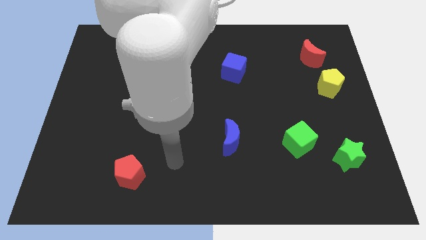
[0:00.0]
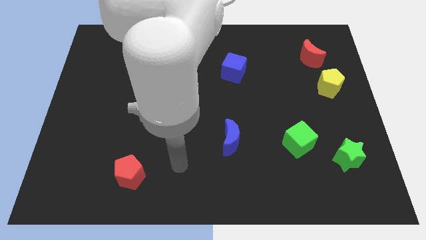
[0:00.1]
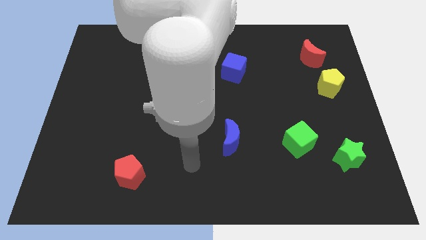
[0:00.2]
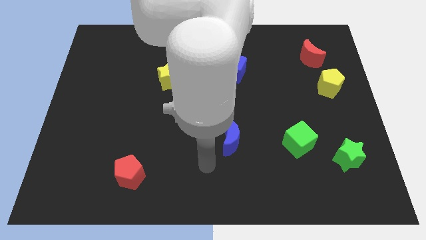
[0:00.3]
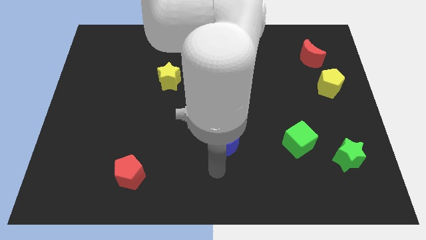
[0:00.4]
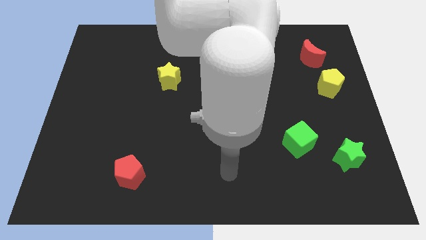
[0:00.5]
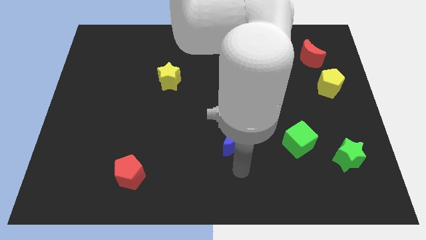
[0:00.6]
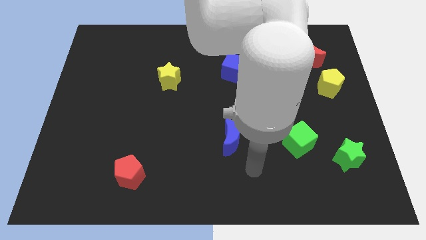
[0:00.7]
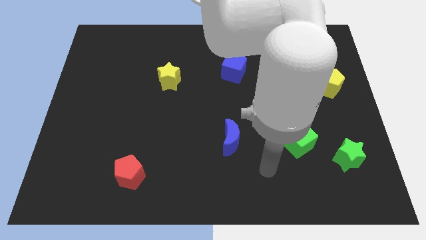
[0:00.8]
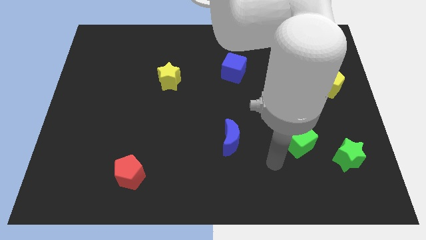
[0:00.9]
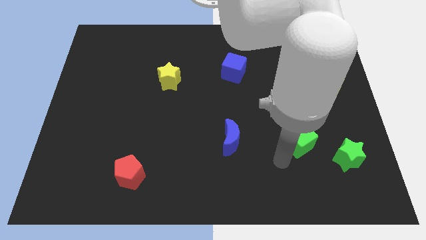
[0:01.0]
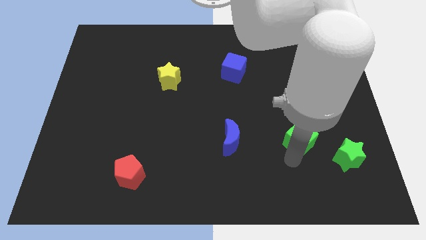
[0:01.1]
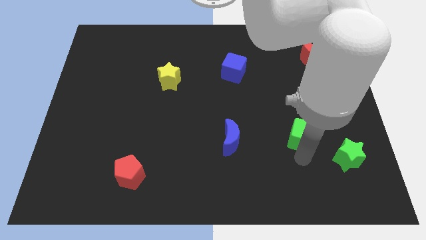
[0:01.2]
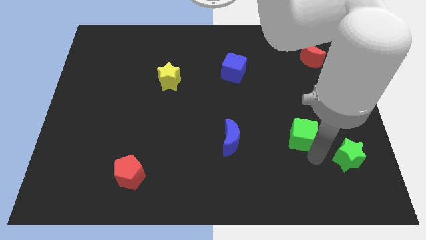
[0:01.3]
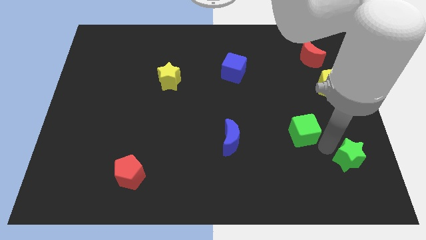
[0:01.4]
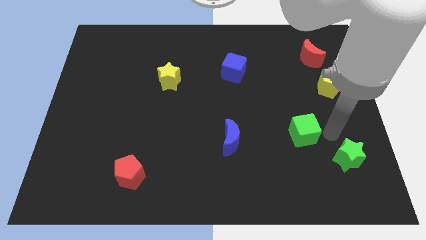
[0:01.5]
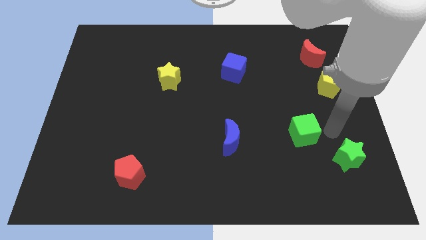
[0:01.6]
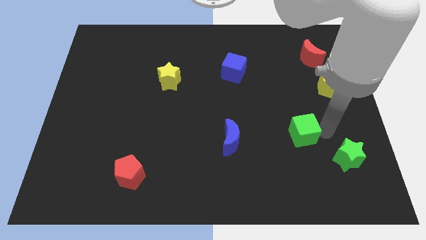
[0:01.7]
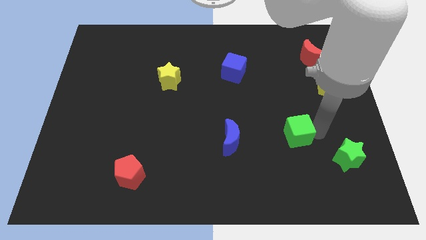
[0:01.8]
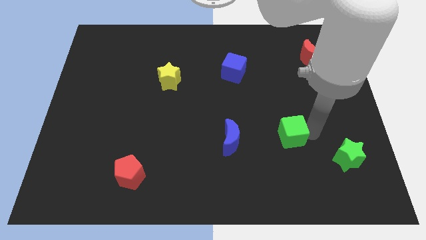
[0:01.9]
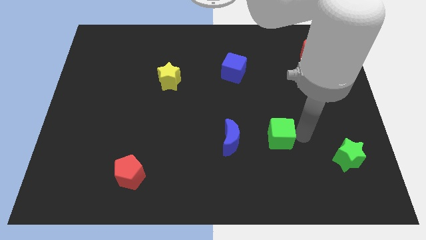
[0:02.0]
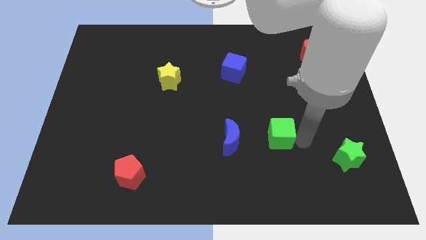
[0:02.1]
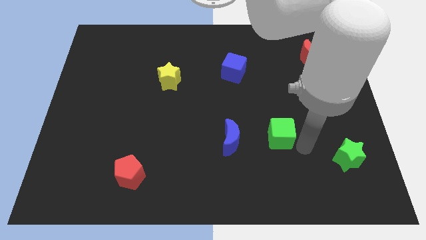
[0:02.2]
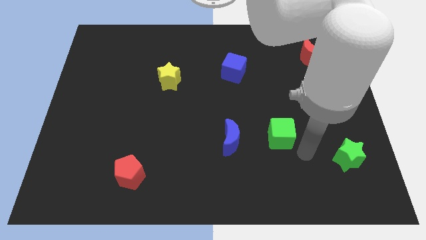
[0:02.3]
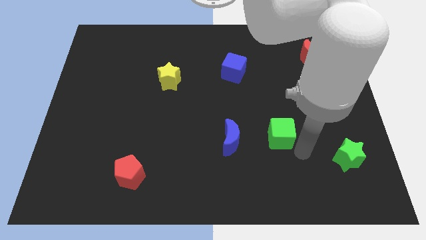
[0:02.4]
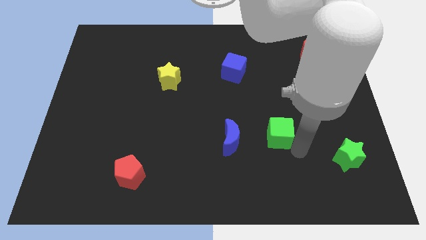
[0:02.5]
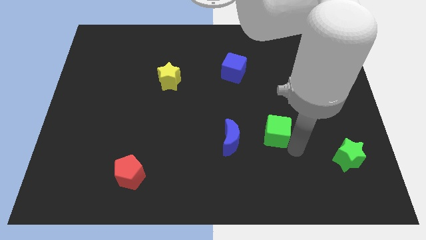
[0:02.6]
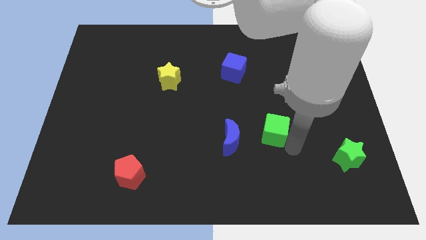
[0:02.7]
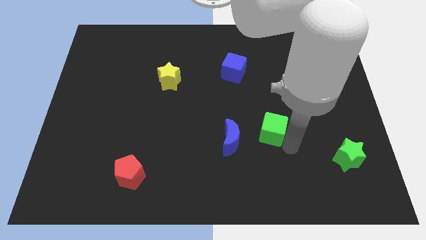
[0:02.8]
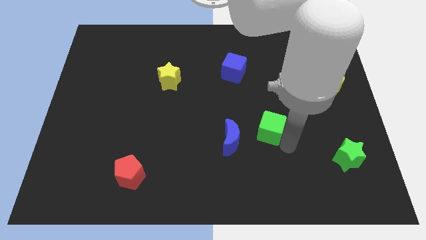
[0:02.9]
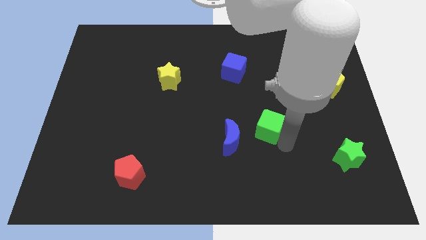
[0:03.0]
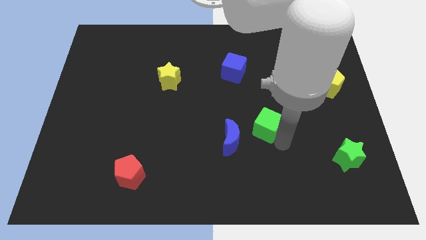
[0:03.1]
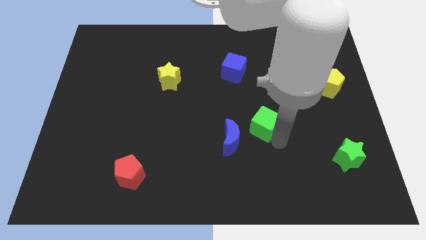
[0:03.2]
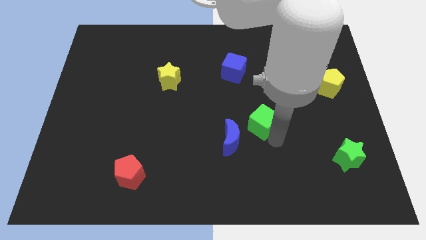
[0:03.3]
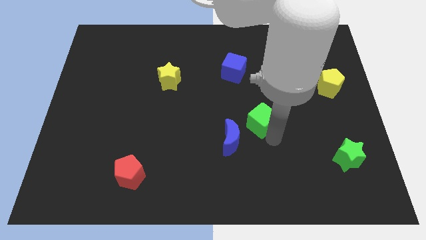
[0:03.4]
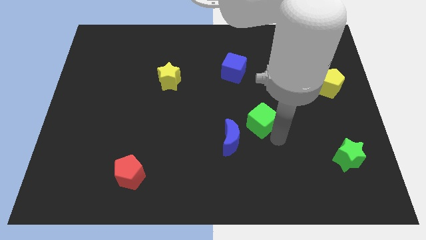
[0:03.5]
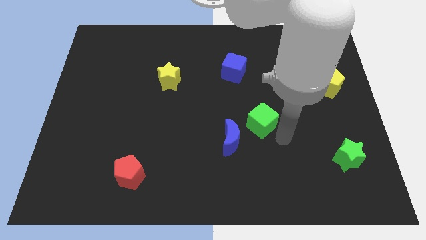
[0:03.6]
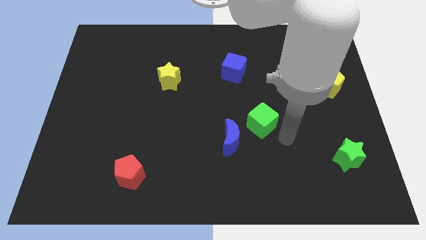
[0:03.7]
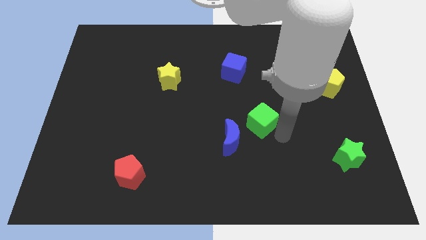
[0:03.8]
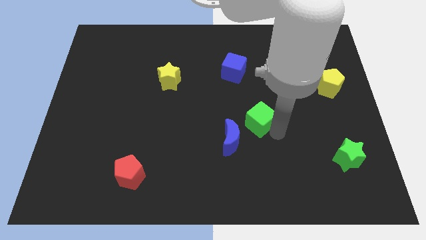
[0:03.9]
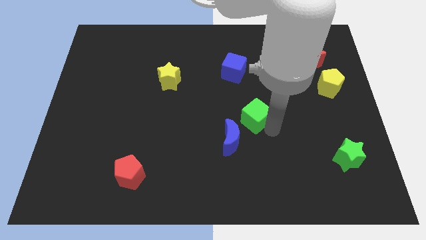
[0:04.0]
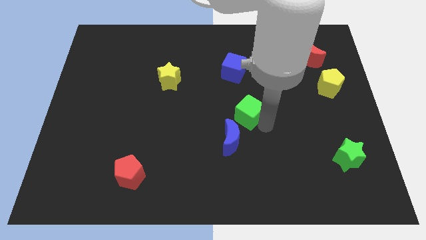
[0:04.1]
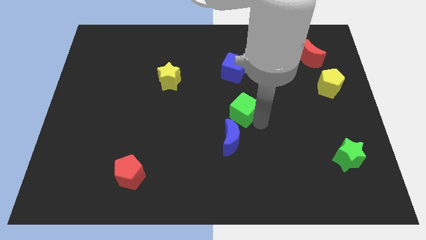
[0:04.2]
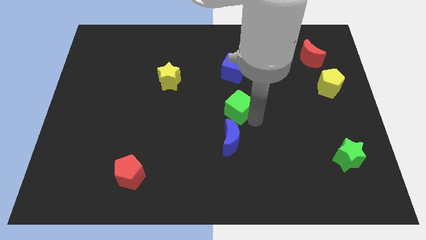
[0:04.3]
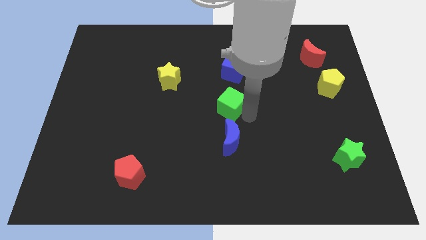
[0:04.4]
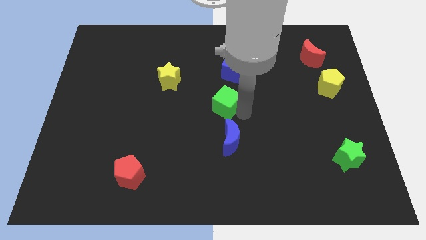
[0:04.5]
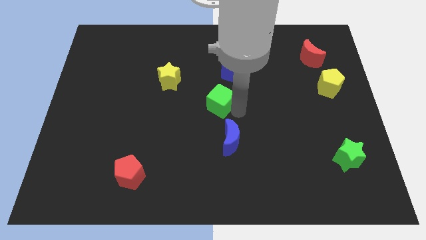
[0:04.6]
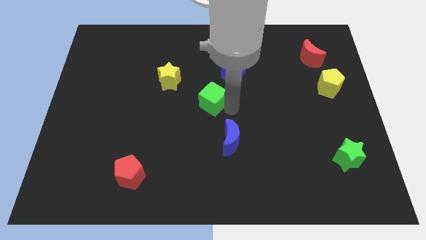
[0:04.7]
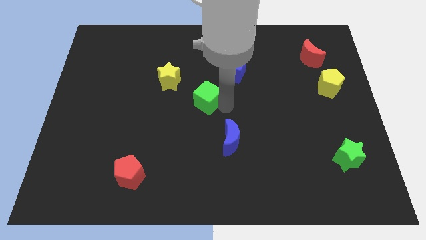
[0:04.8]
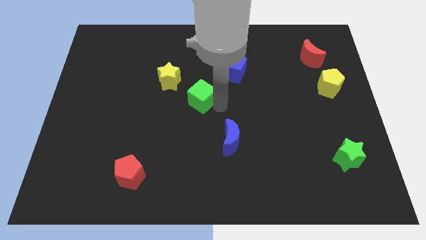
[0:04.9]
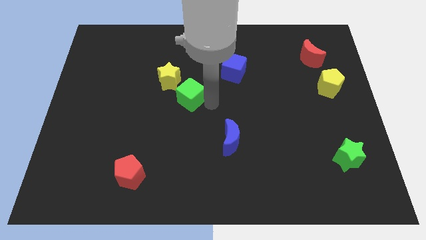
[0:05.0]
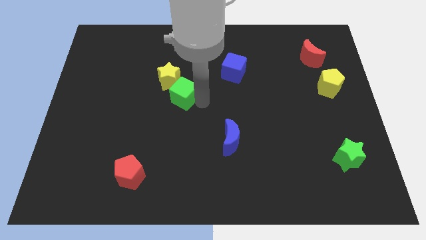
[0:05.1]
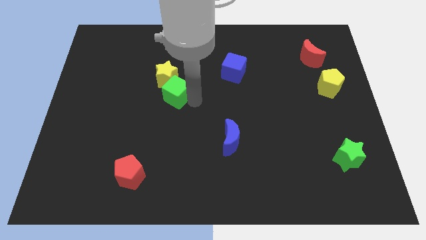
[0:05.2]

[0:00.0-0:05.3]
move the green cube next to the yellow star

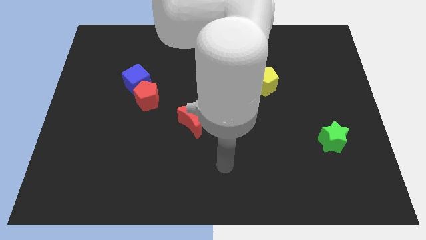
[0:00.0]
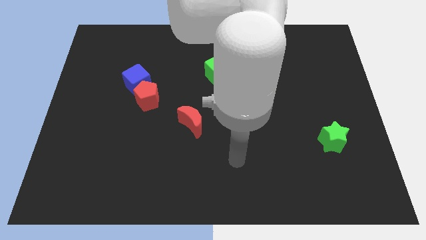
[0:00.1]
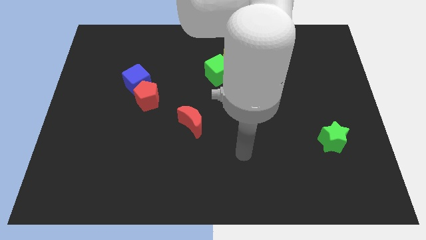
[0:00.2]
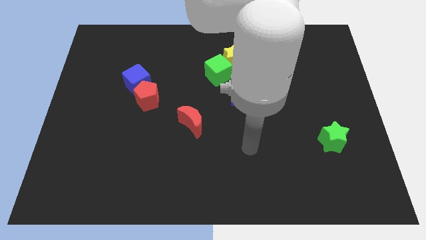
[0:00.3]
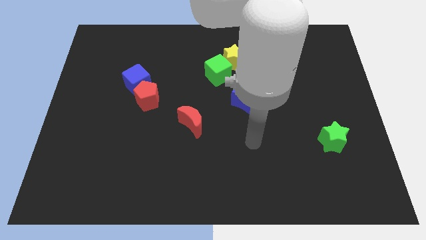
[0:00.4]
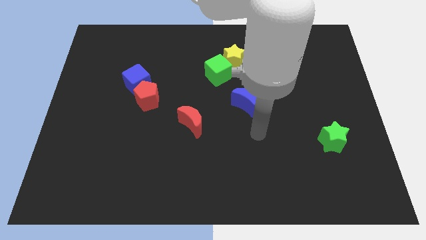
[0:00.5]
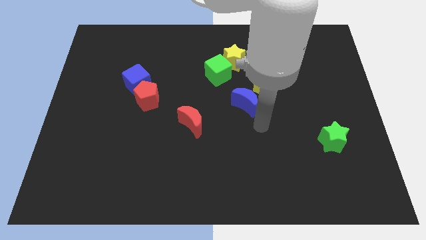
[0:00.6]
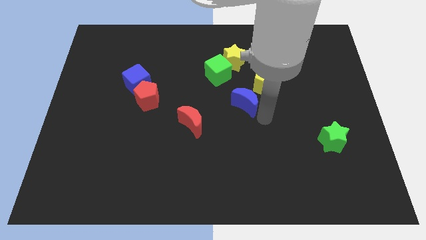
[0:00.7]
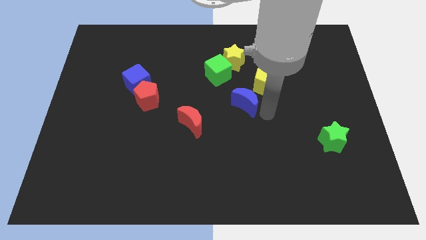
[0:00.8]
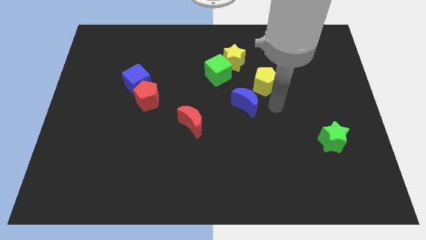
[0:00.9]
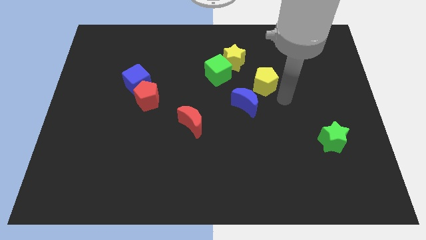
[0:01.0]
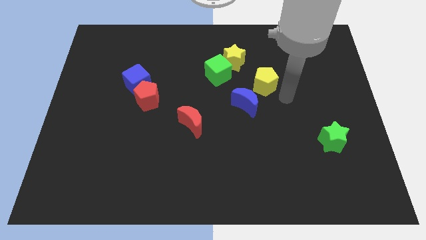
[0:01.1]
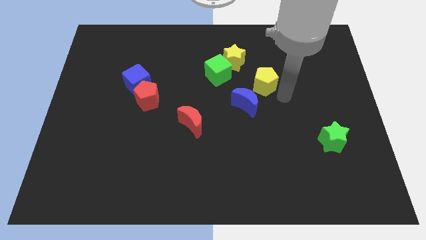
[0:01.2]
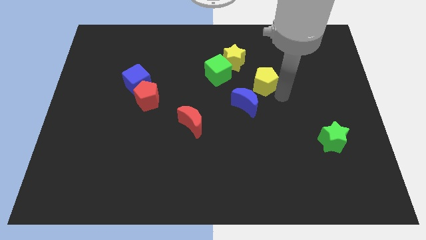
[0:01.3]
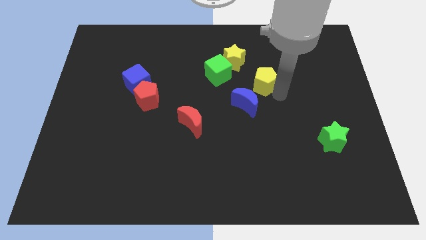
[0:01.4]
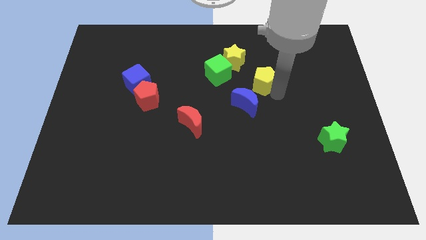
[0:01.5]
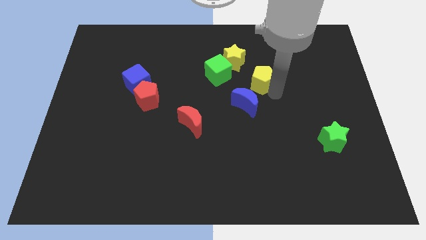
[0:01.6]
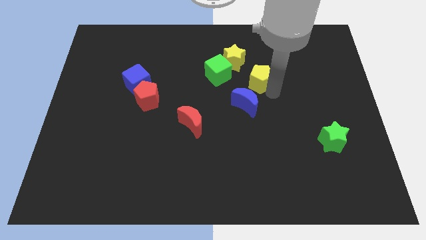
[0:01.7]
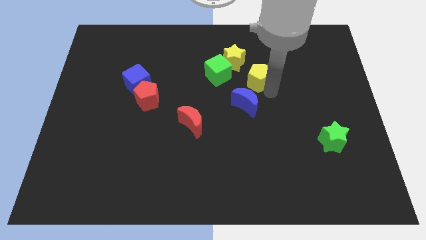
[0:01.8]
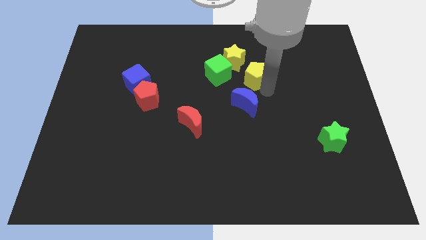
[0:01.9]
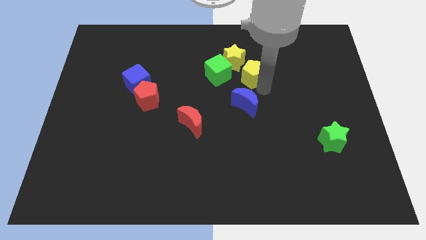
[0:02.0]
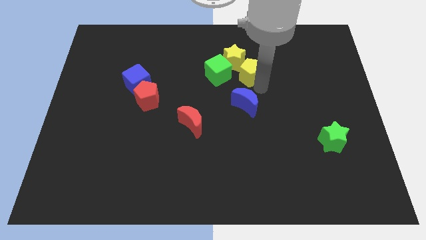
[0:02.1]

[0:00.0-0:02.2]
push the yellow pentagon to the yellow star

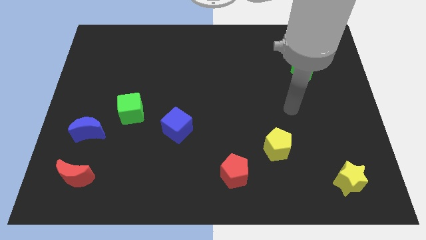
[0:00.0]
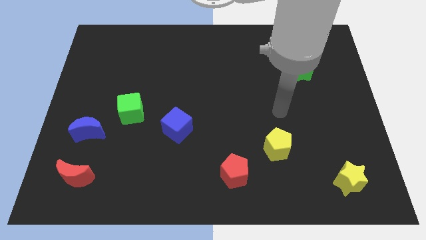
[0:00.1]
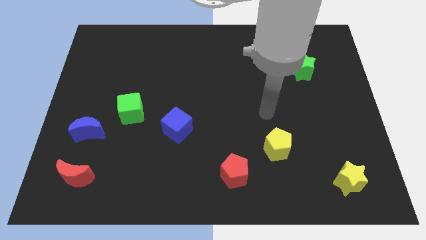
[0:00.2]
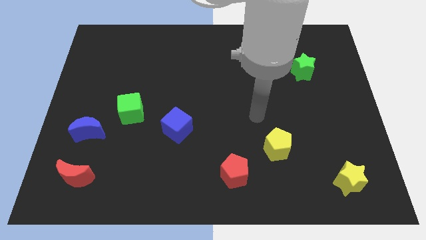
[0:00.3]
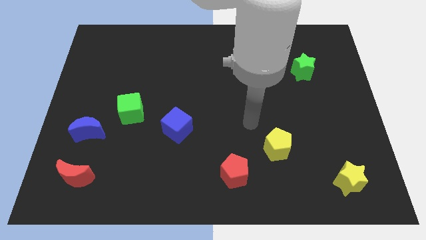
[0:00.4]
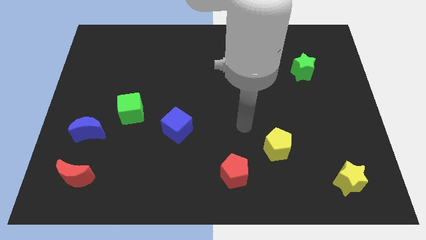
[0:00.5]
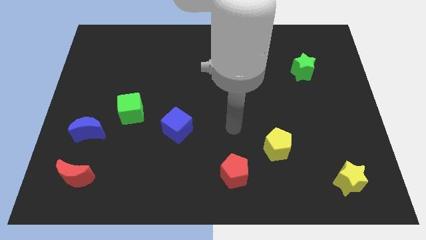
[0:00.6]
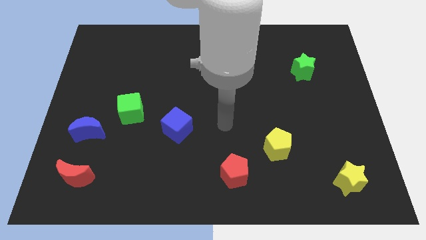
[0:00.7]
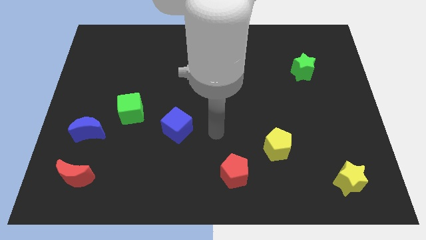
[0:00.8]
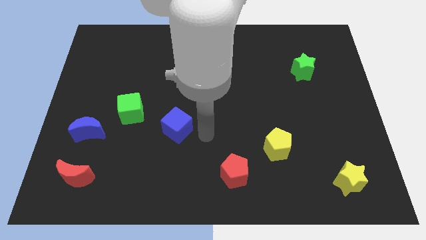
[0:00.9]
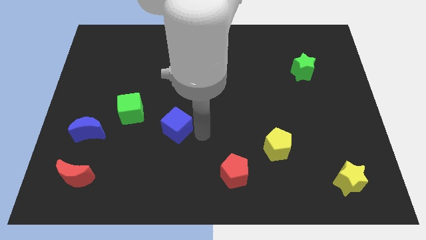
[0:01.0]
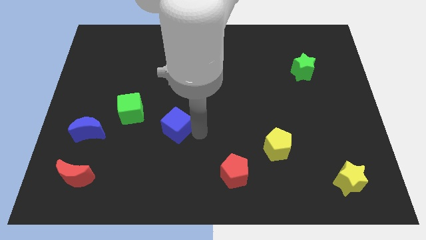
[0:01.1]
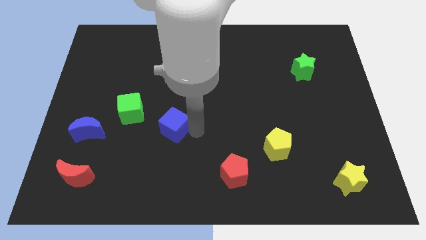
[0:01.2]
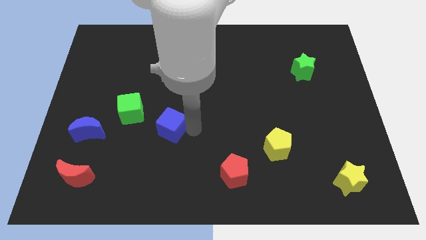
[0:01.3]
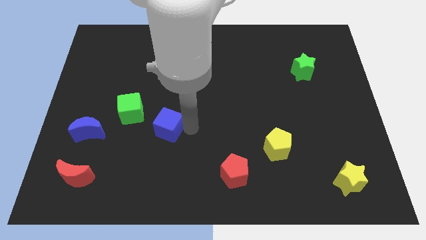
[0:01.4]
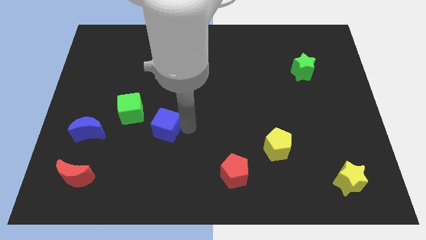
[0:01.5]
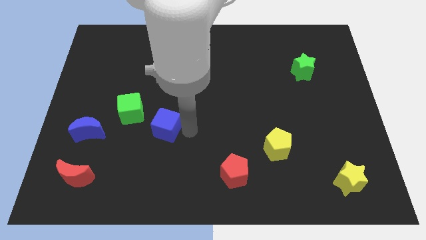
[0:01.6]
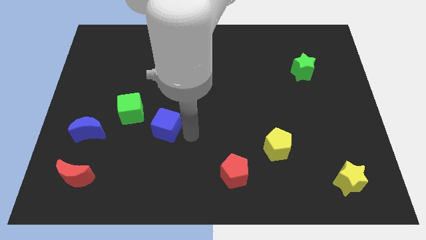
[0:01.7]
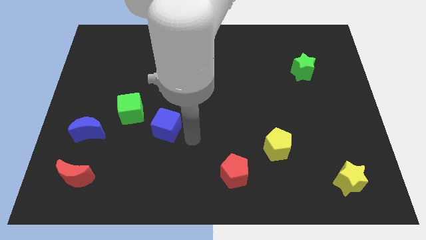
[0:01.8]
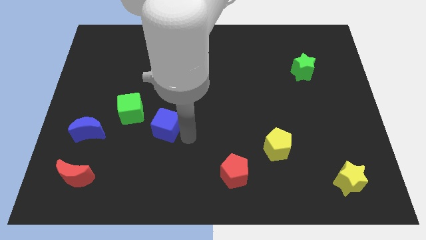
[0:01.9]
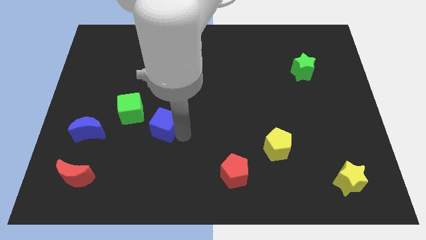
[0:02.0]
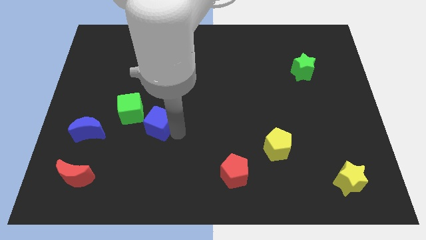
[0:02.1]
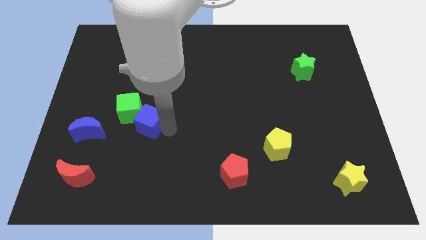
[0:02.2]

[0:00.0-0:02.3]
move the blue cube close to the green cube
